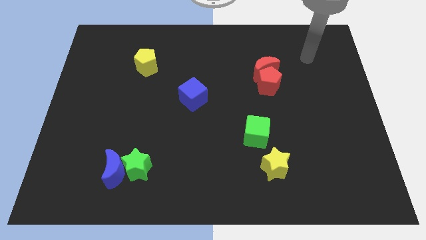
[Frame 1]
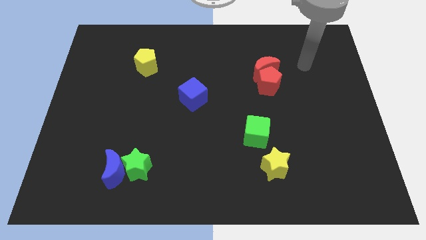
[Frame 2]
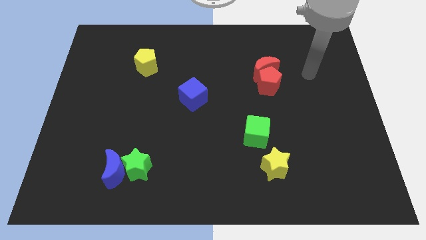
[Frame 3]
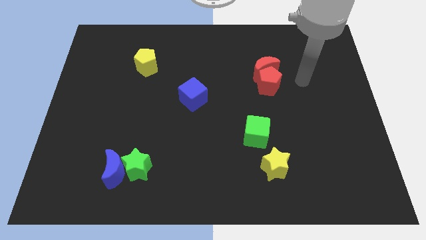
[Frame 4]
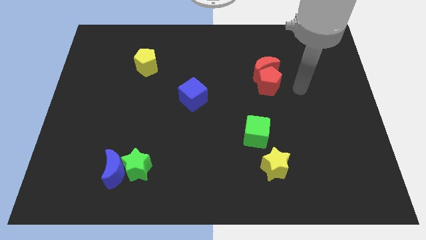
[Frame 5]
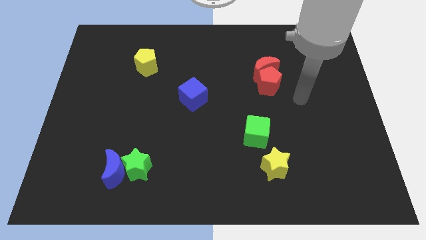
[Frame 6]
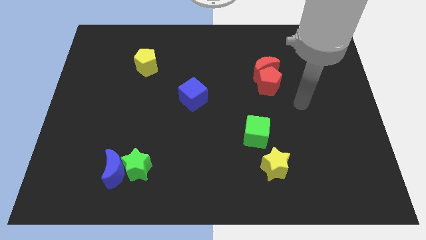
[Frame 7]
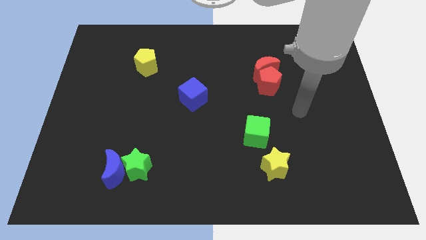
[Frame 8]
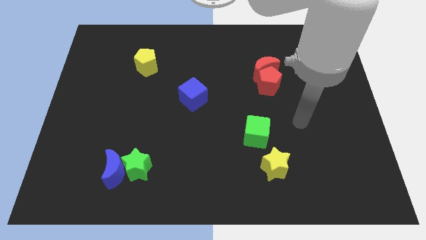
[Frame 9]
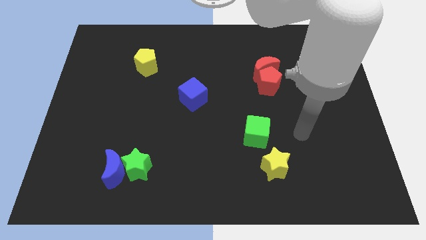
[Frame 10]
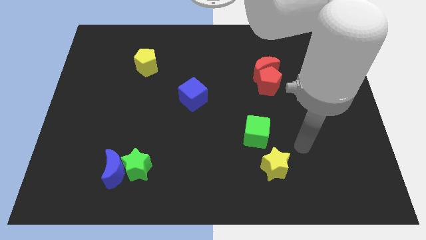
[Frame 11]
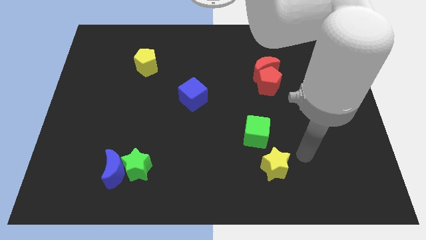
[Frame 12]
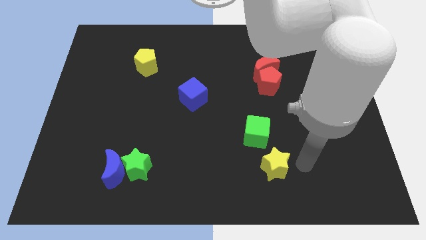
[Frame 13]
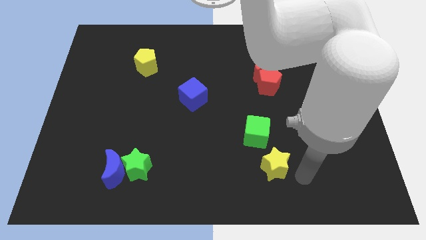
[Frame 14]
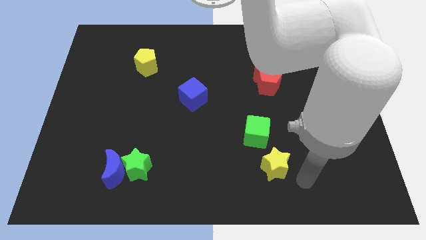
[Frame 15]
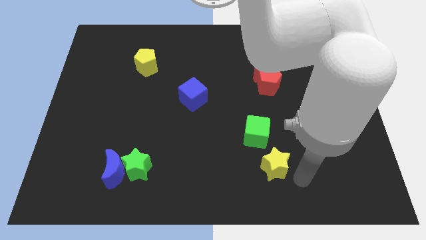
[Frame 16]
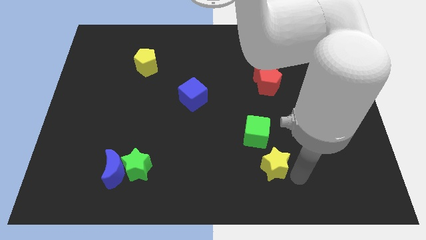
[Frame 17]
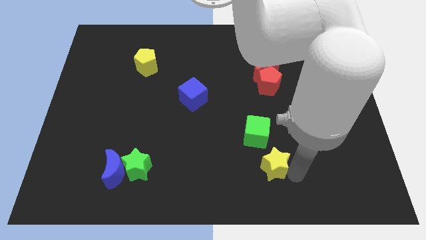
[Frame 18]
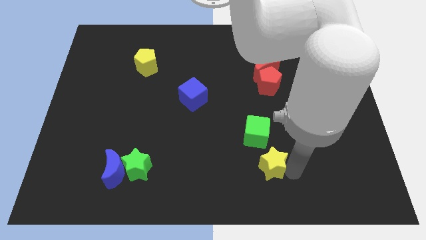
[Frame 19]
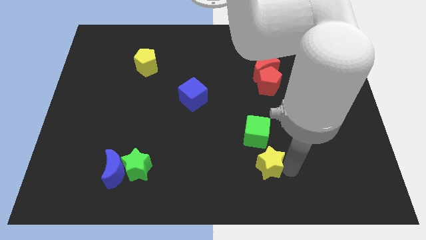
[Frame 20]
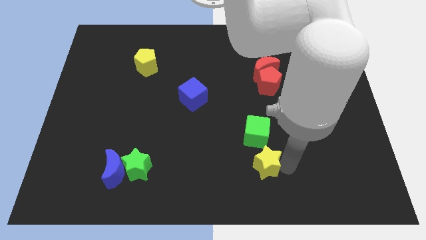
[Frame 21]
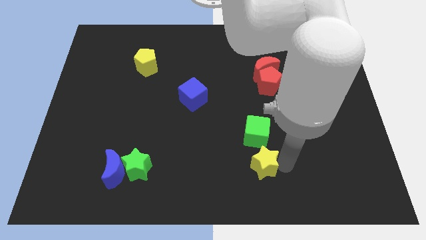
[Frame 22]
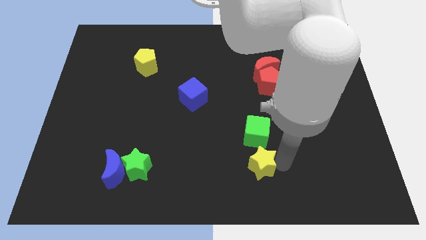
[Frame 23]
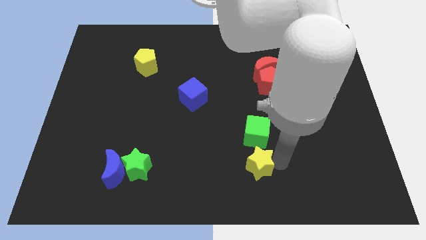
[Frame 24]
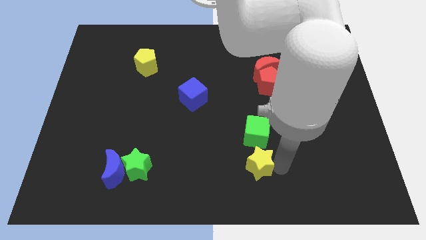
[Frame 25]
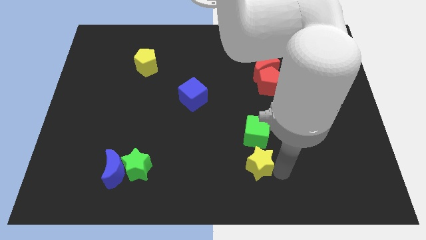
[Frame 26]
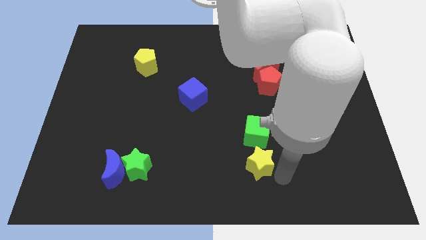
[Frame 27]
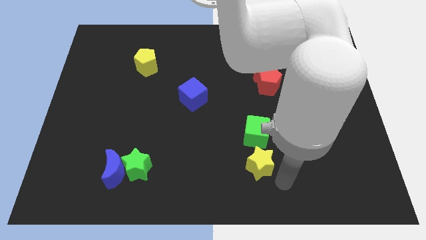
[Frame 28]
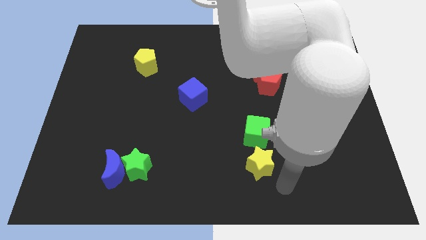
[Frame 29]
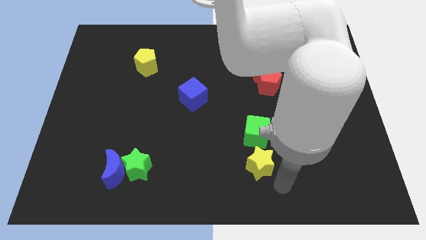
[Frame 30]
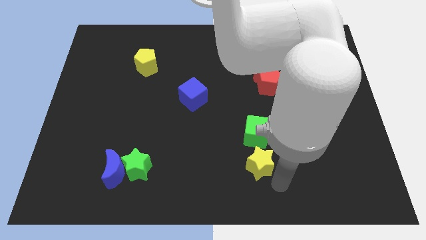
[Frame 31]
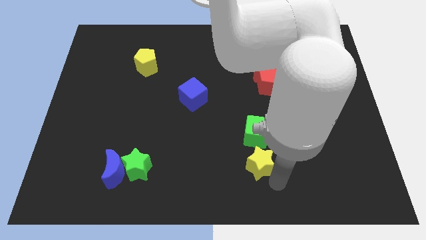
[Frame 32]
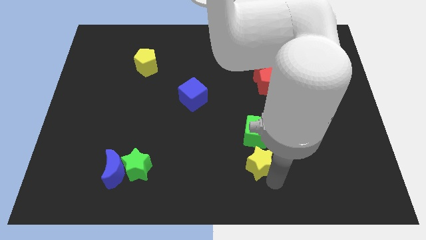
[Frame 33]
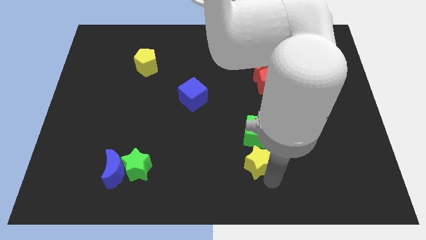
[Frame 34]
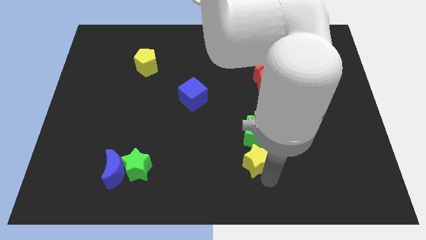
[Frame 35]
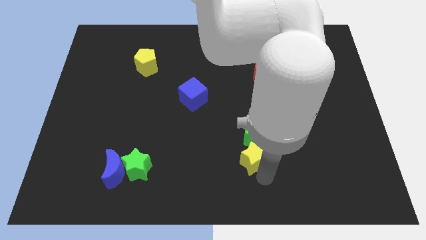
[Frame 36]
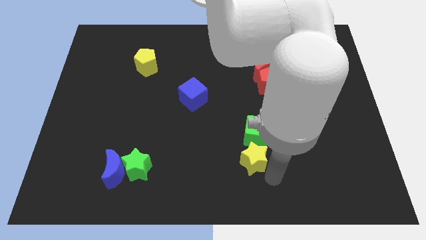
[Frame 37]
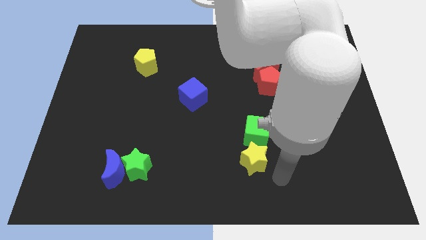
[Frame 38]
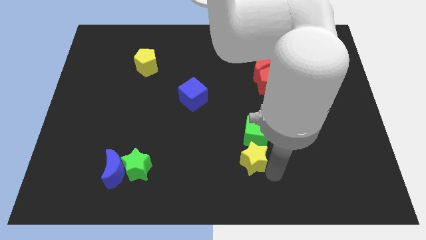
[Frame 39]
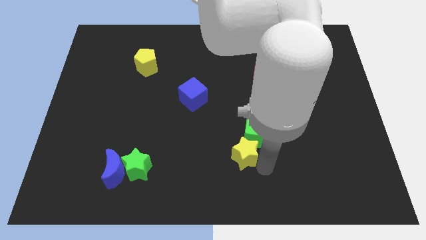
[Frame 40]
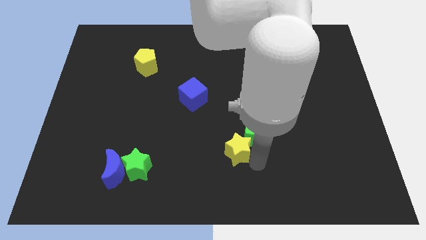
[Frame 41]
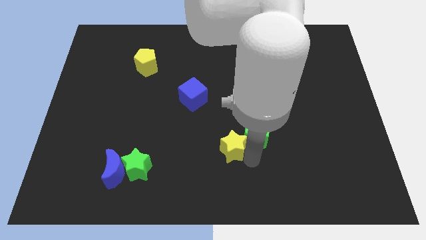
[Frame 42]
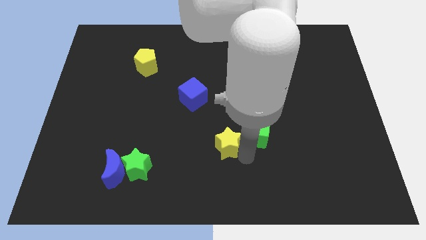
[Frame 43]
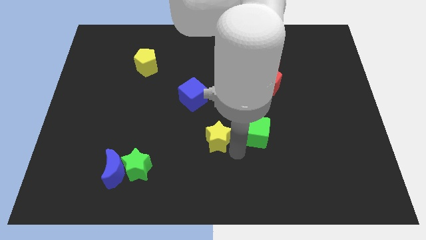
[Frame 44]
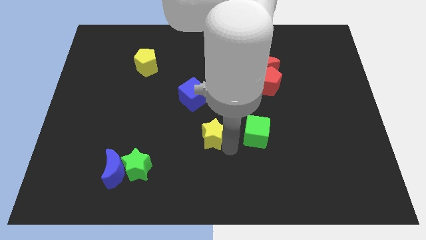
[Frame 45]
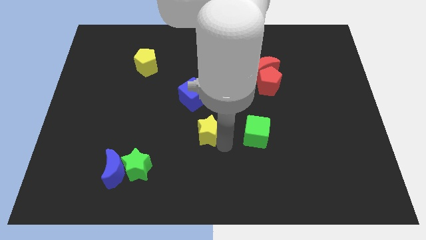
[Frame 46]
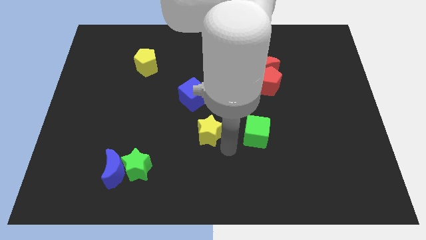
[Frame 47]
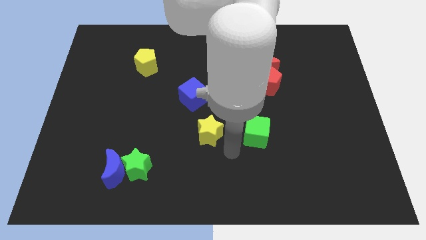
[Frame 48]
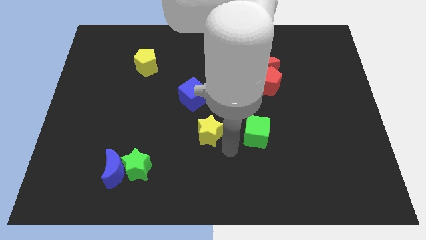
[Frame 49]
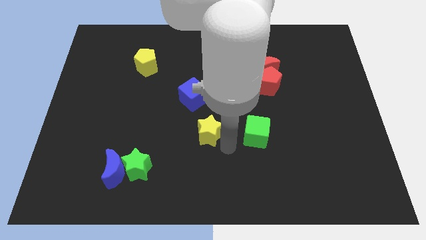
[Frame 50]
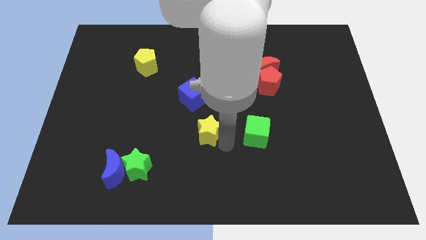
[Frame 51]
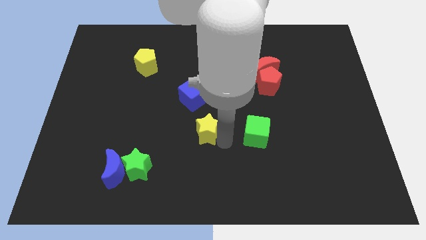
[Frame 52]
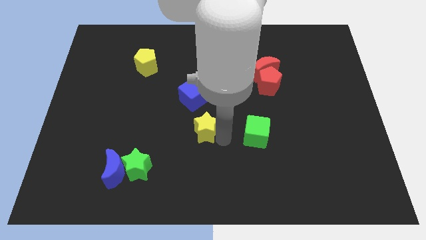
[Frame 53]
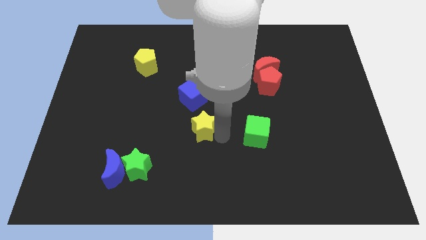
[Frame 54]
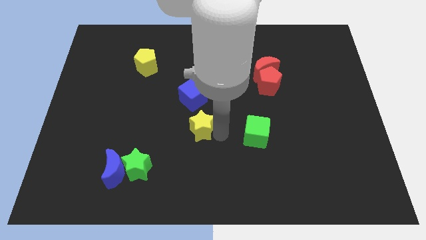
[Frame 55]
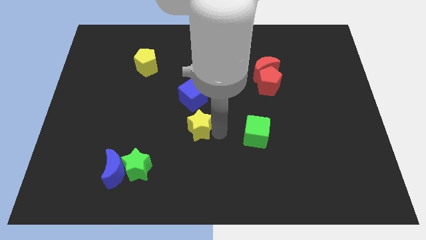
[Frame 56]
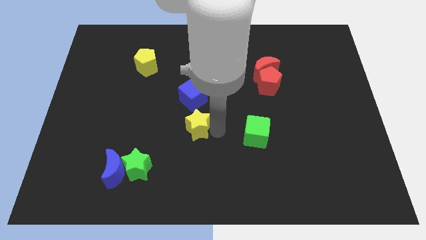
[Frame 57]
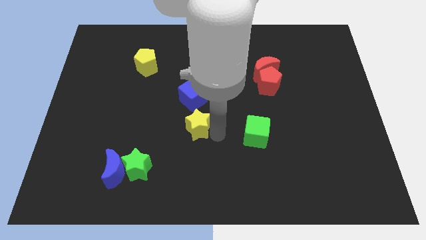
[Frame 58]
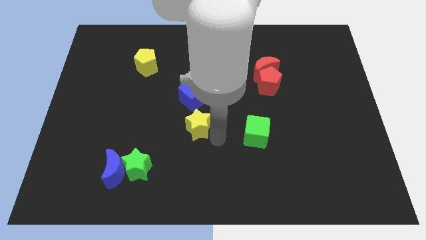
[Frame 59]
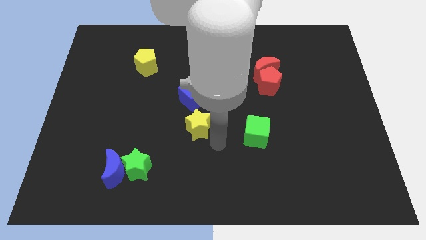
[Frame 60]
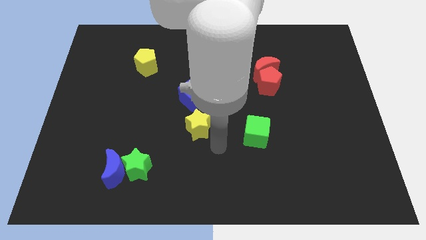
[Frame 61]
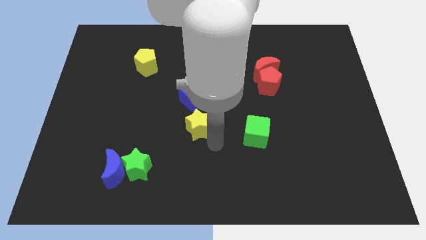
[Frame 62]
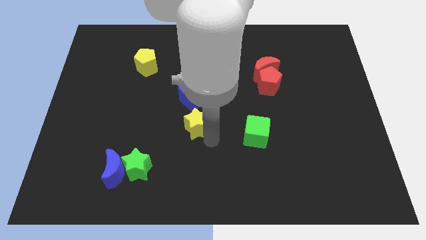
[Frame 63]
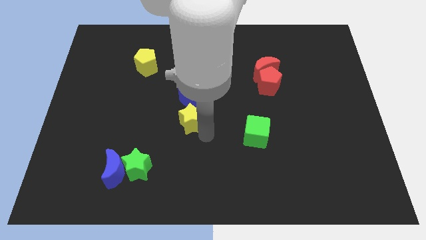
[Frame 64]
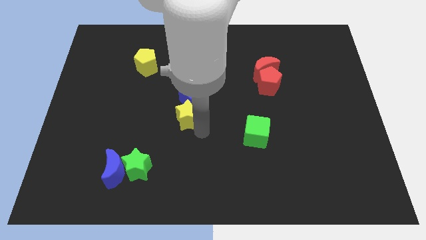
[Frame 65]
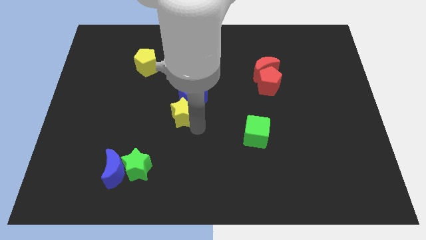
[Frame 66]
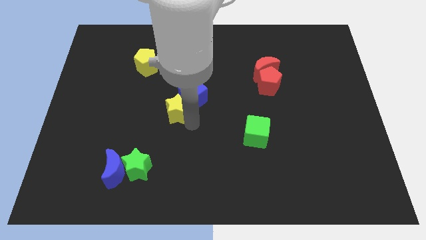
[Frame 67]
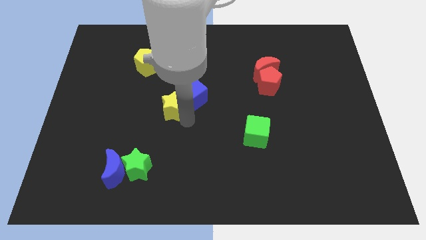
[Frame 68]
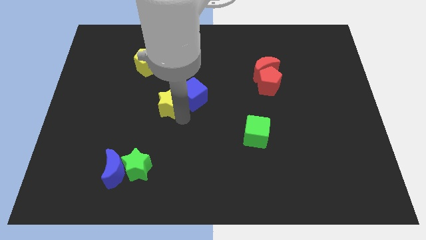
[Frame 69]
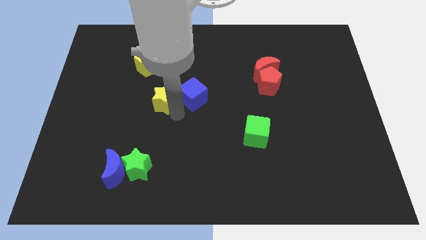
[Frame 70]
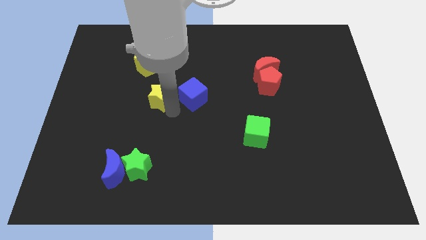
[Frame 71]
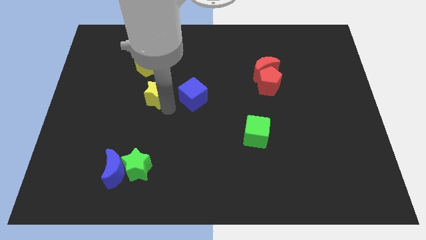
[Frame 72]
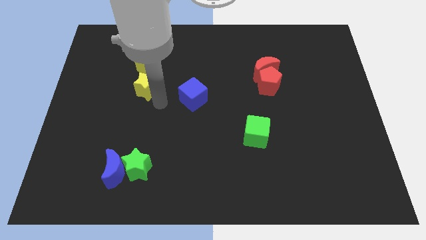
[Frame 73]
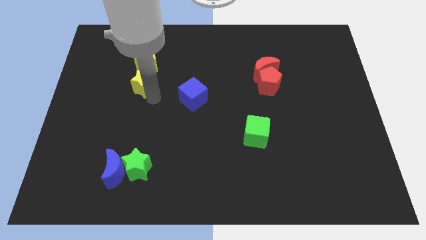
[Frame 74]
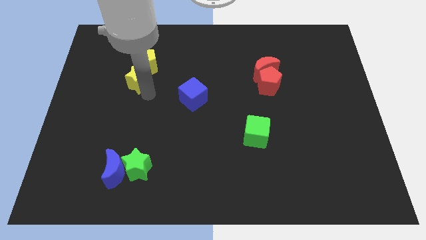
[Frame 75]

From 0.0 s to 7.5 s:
push the yellow star close to the yellow pentagon

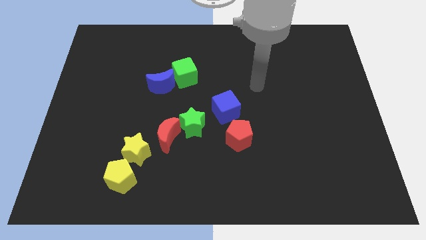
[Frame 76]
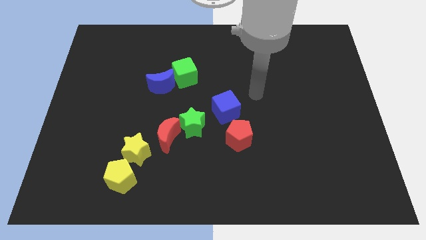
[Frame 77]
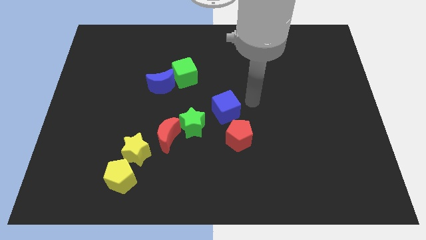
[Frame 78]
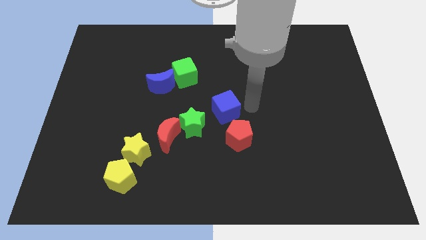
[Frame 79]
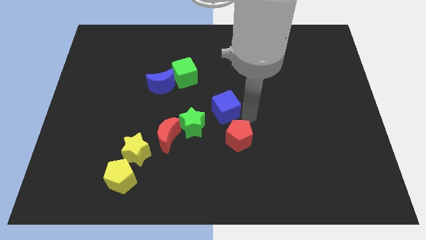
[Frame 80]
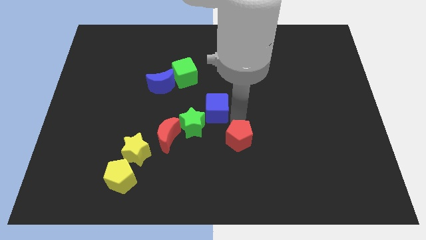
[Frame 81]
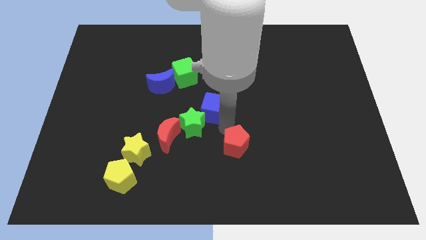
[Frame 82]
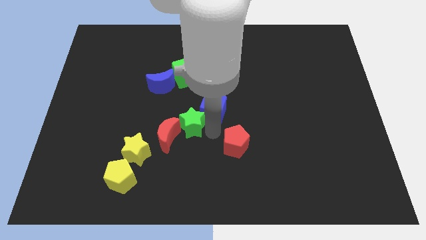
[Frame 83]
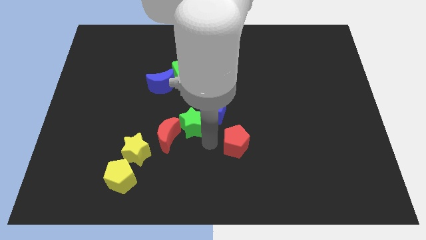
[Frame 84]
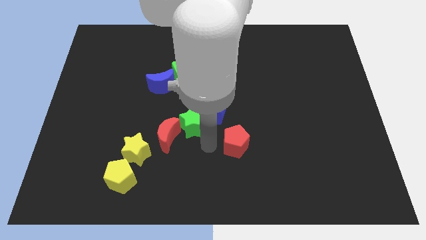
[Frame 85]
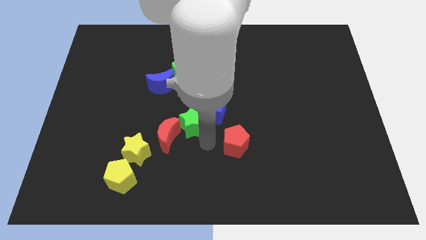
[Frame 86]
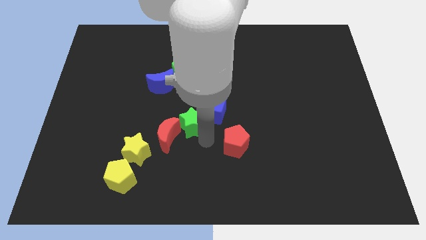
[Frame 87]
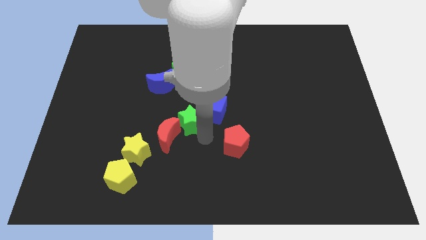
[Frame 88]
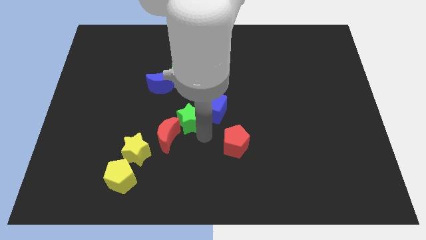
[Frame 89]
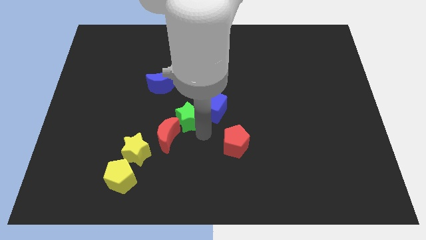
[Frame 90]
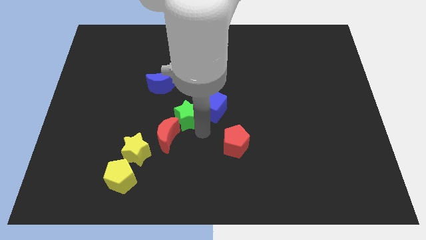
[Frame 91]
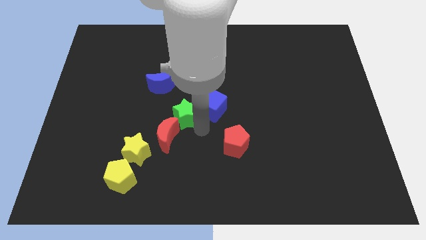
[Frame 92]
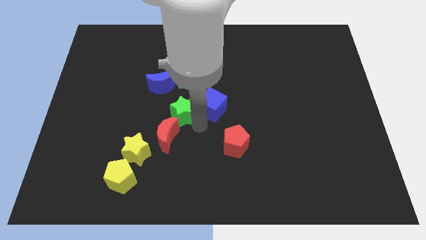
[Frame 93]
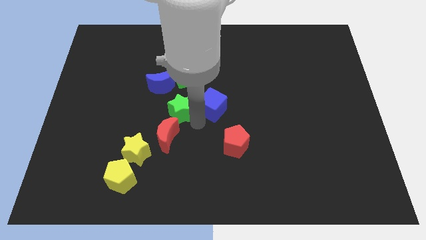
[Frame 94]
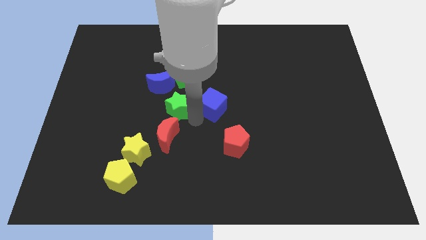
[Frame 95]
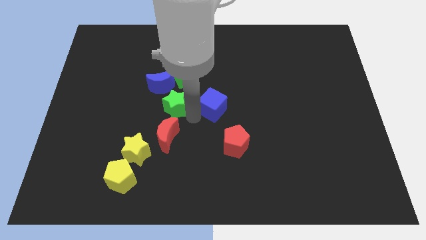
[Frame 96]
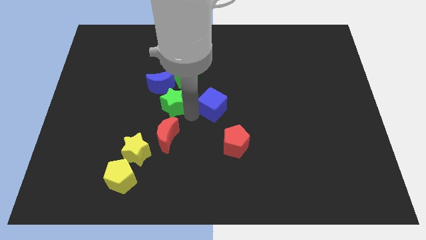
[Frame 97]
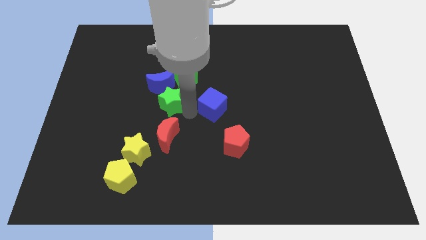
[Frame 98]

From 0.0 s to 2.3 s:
move the green star to the blue moon
